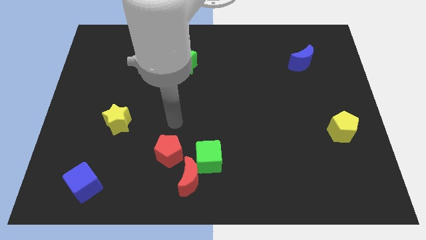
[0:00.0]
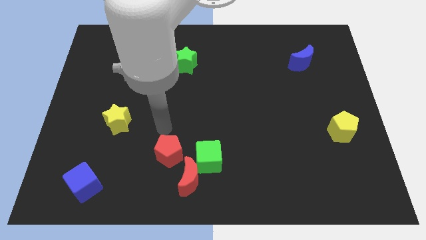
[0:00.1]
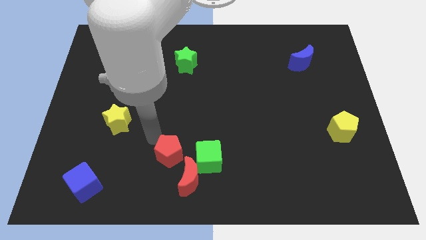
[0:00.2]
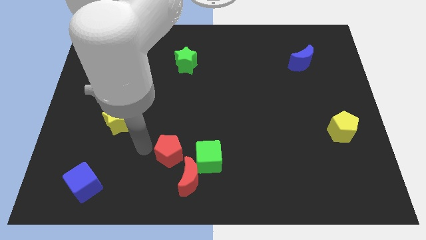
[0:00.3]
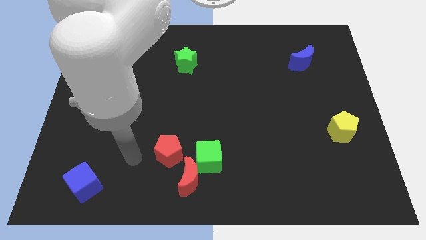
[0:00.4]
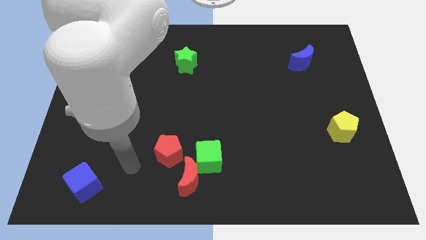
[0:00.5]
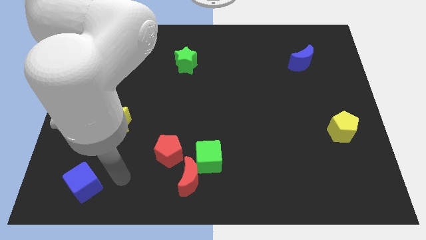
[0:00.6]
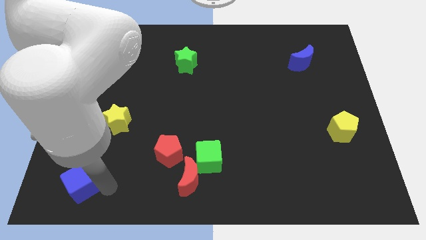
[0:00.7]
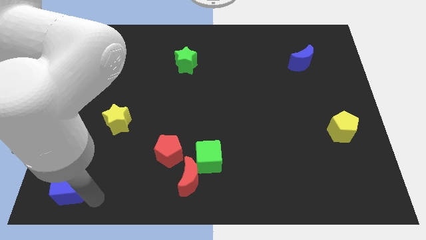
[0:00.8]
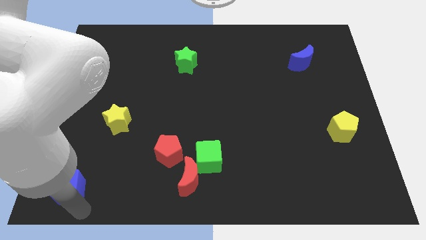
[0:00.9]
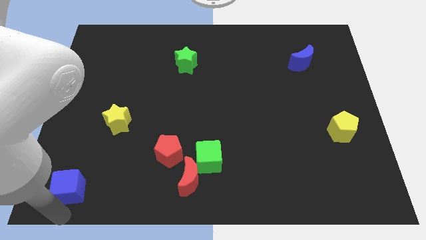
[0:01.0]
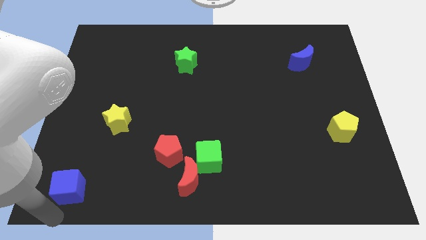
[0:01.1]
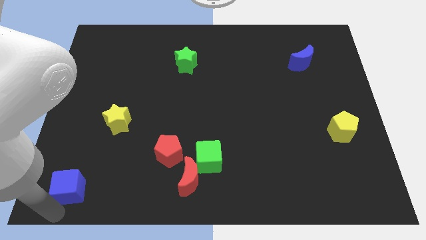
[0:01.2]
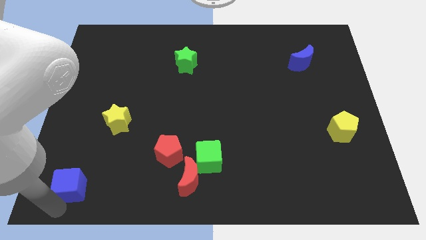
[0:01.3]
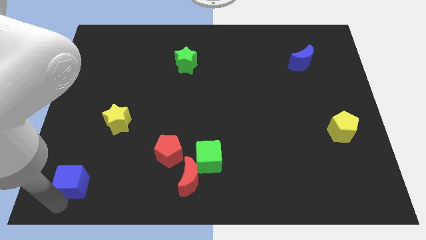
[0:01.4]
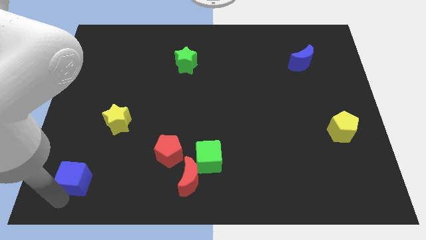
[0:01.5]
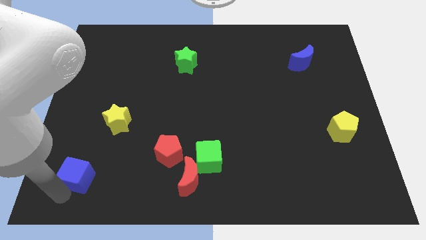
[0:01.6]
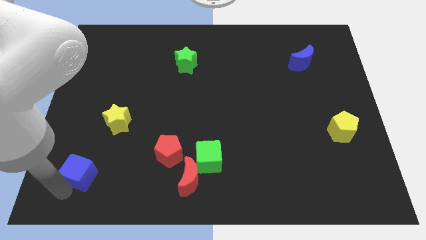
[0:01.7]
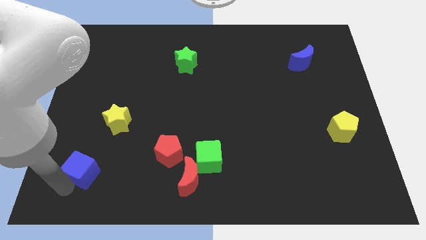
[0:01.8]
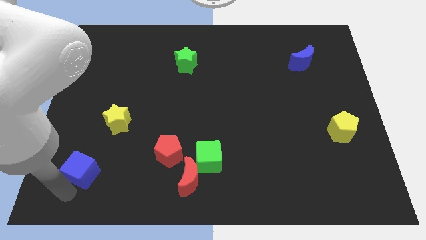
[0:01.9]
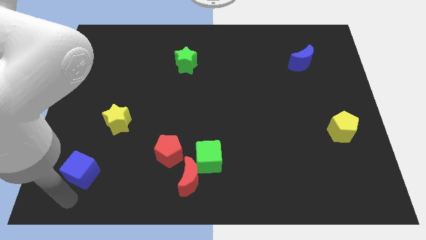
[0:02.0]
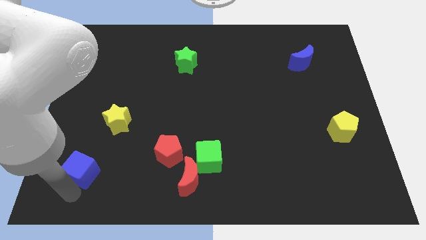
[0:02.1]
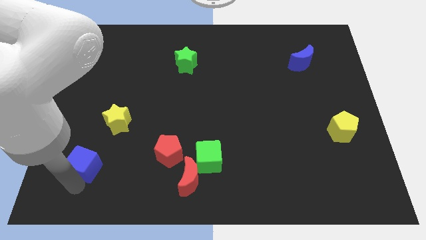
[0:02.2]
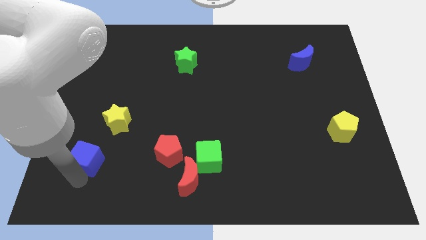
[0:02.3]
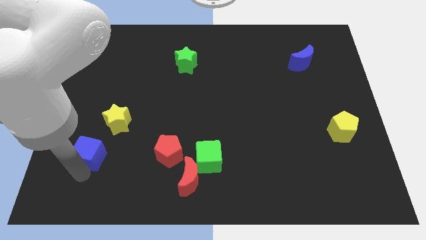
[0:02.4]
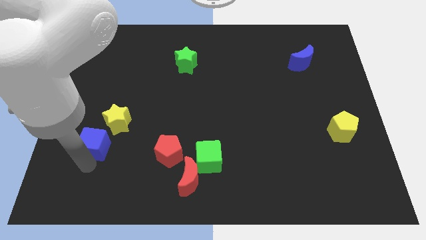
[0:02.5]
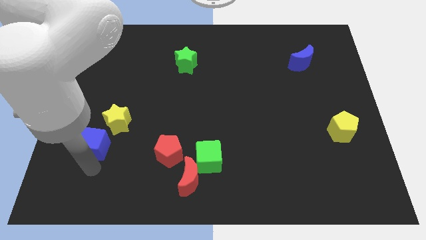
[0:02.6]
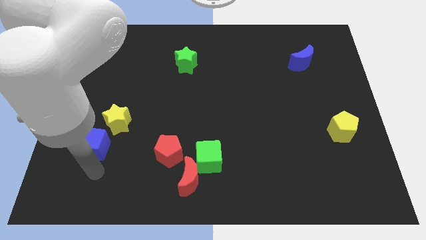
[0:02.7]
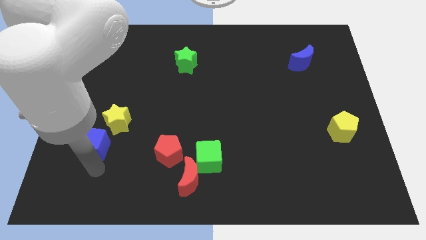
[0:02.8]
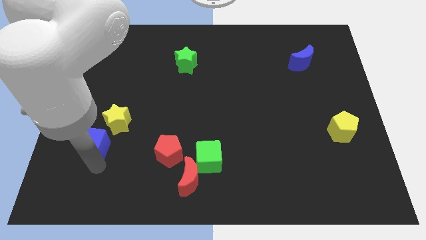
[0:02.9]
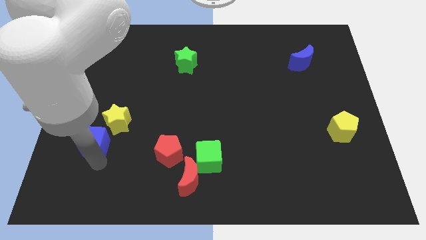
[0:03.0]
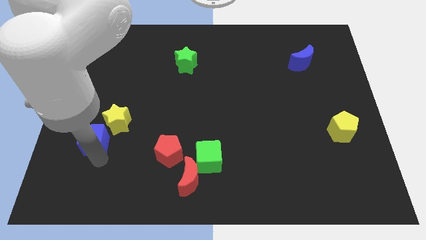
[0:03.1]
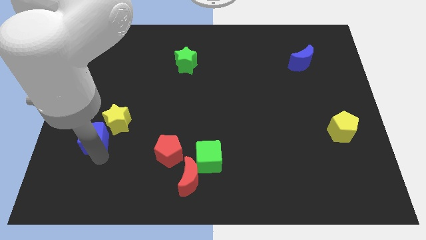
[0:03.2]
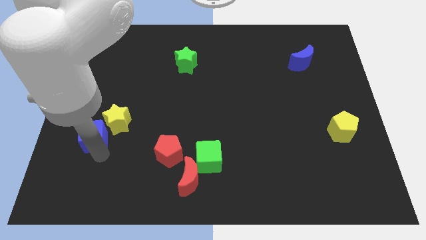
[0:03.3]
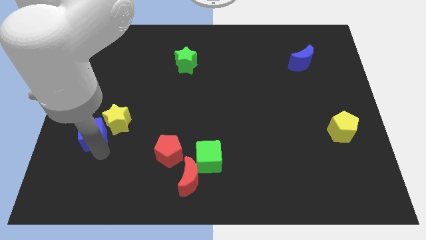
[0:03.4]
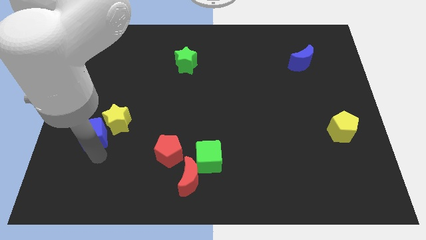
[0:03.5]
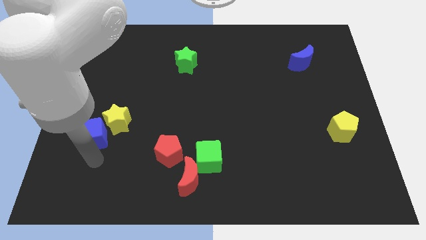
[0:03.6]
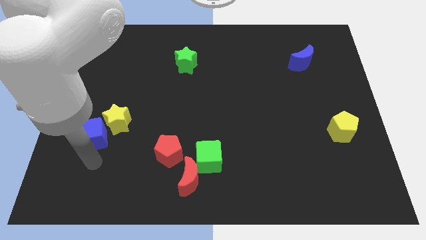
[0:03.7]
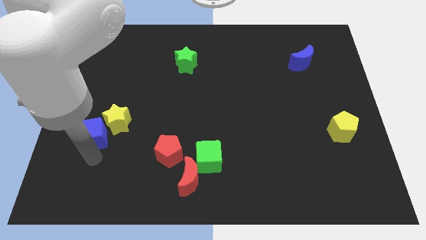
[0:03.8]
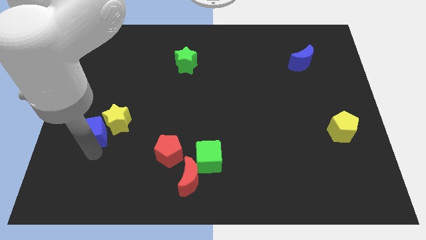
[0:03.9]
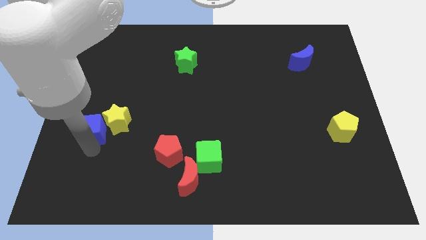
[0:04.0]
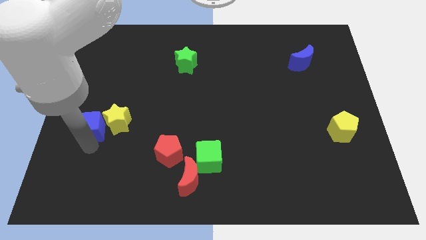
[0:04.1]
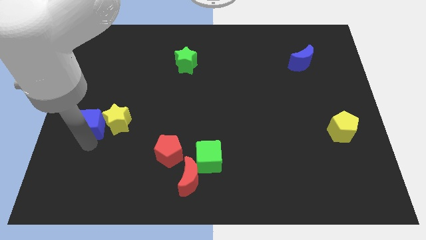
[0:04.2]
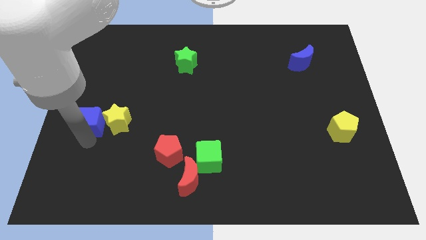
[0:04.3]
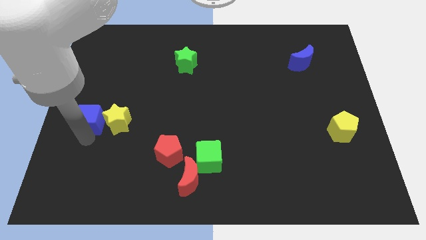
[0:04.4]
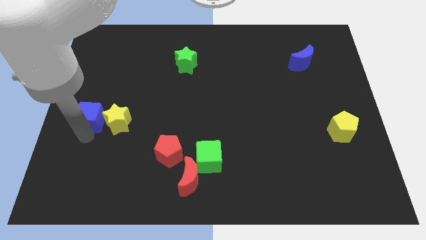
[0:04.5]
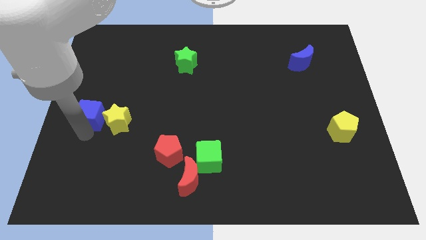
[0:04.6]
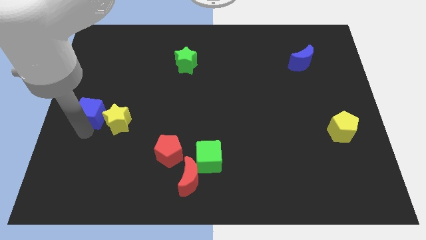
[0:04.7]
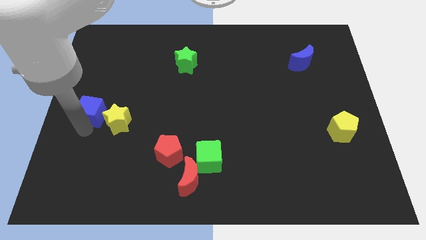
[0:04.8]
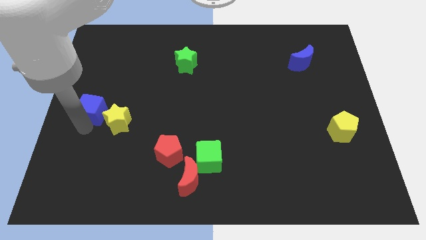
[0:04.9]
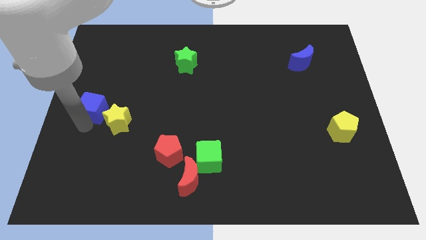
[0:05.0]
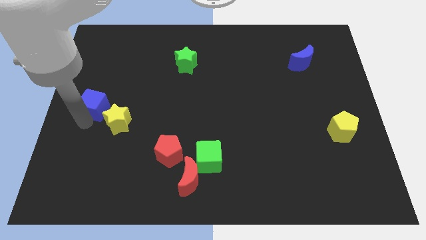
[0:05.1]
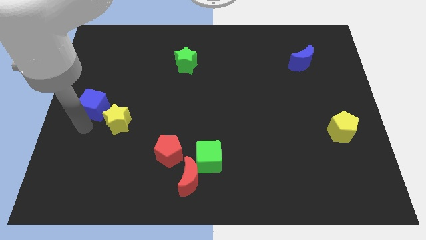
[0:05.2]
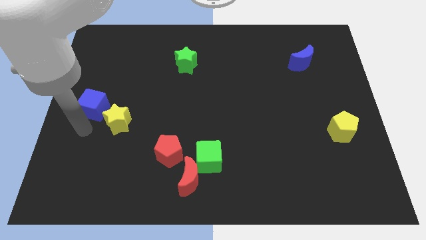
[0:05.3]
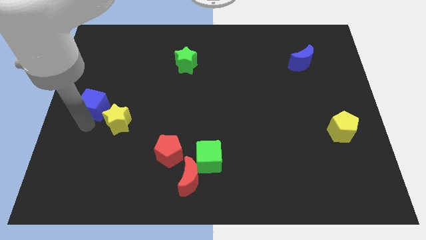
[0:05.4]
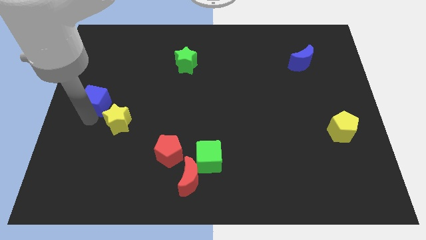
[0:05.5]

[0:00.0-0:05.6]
push the blue cube up

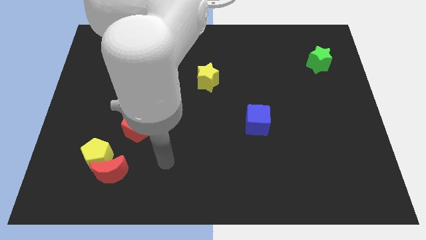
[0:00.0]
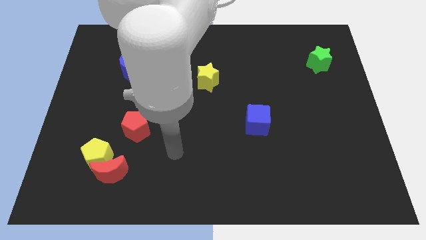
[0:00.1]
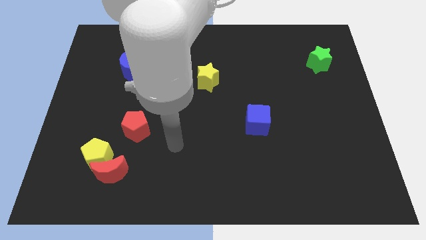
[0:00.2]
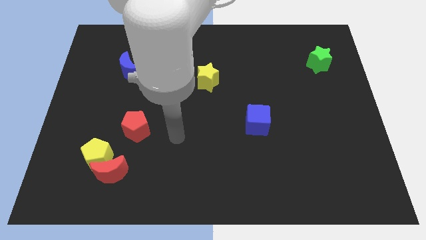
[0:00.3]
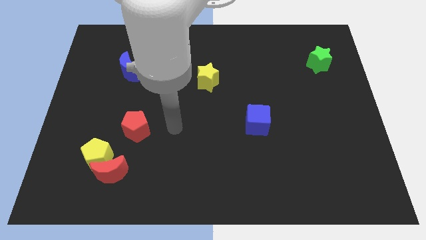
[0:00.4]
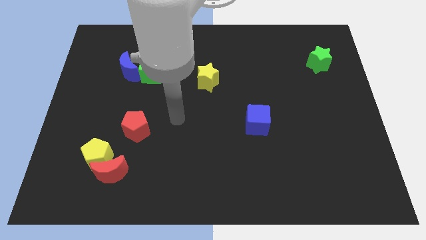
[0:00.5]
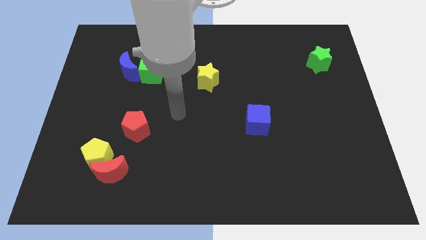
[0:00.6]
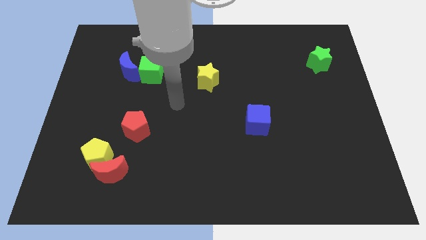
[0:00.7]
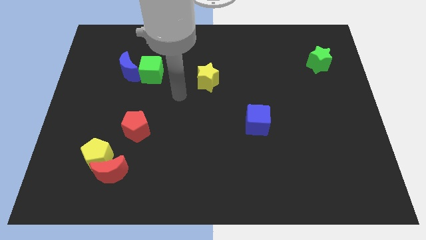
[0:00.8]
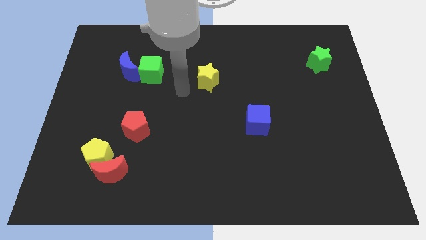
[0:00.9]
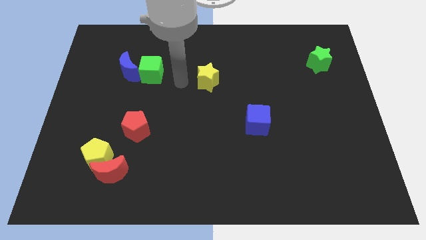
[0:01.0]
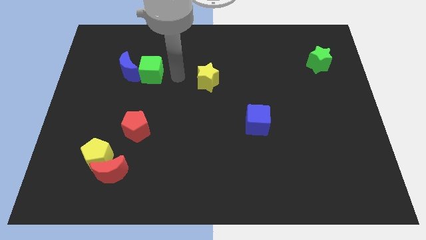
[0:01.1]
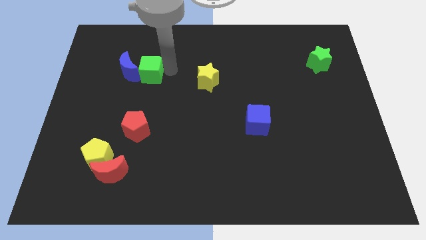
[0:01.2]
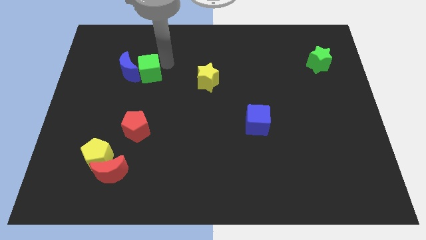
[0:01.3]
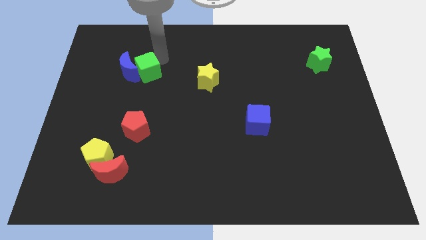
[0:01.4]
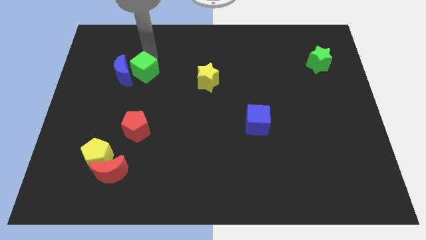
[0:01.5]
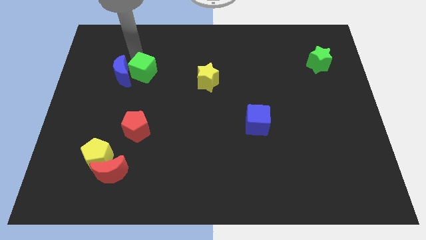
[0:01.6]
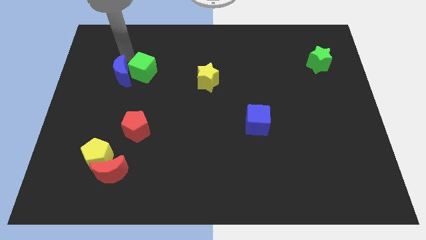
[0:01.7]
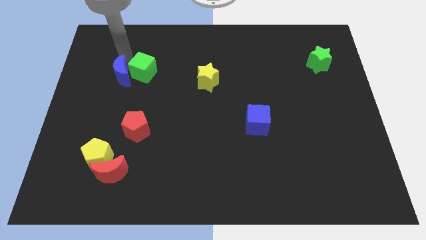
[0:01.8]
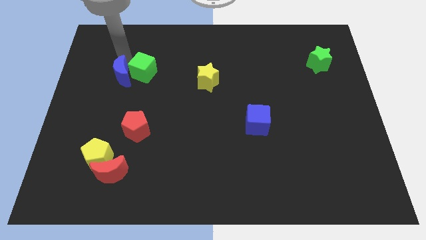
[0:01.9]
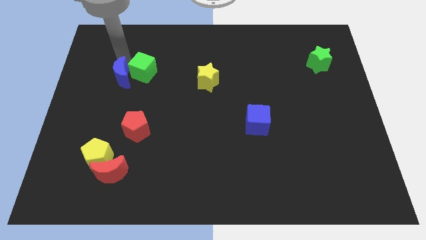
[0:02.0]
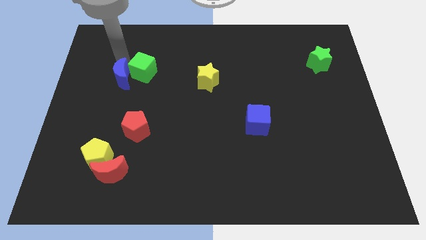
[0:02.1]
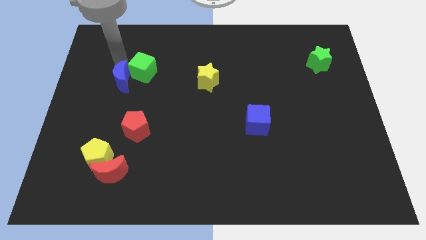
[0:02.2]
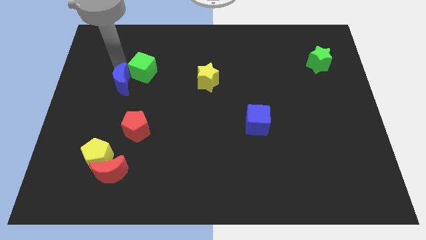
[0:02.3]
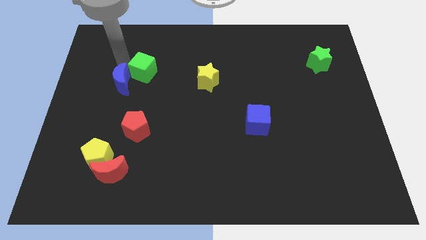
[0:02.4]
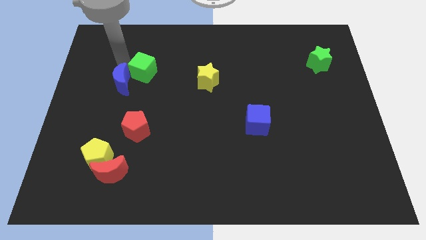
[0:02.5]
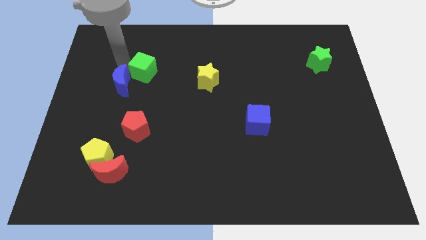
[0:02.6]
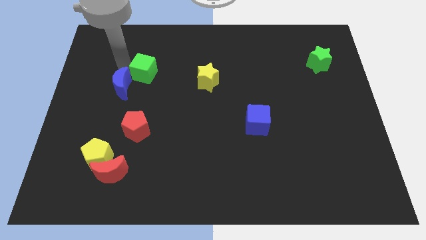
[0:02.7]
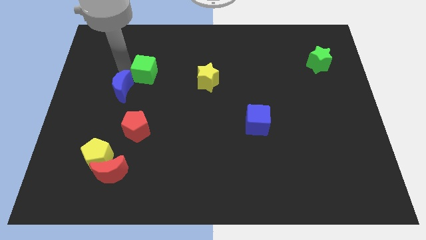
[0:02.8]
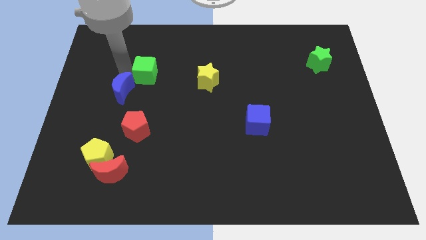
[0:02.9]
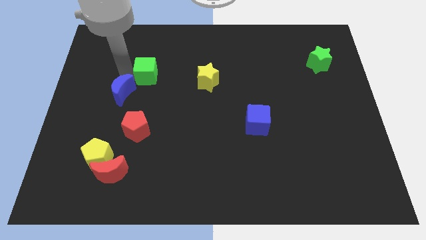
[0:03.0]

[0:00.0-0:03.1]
slide the blue moon down a little bit
